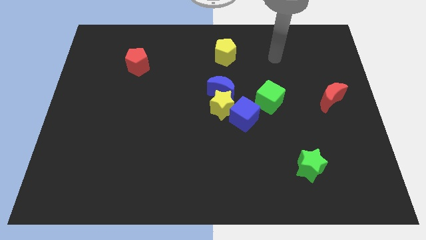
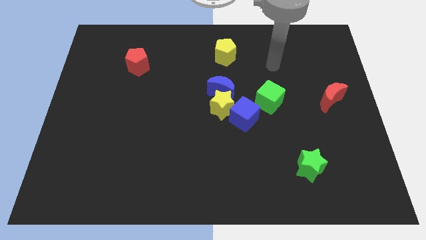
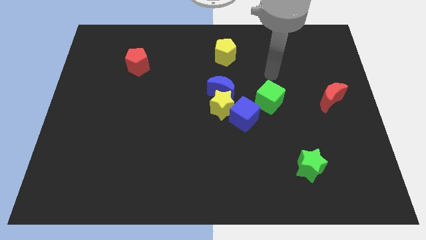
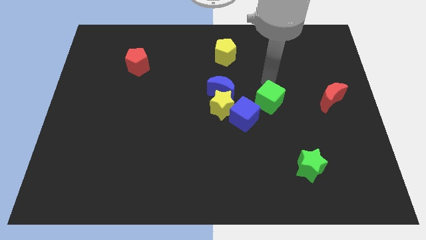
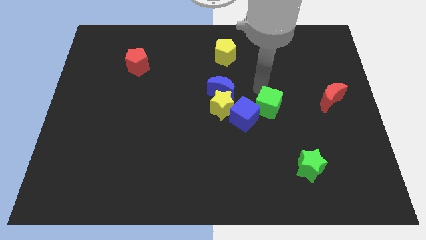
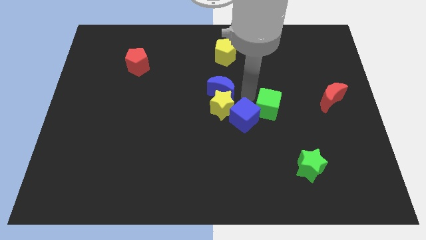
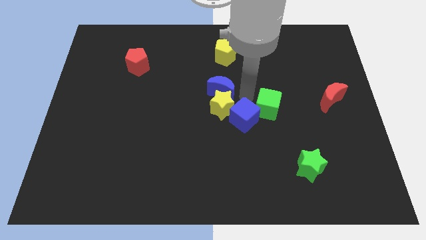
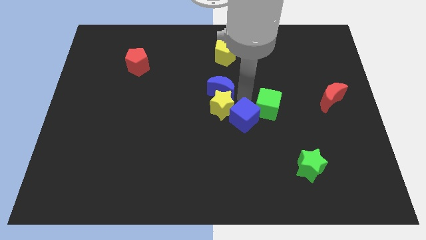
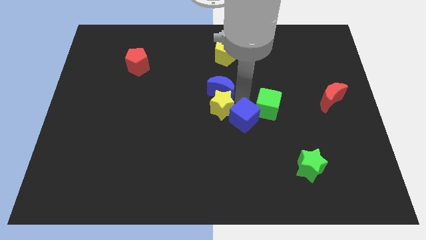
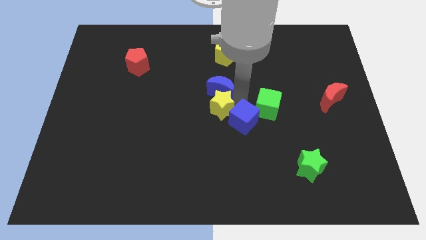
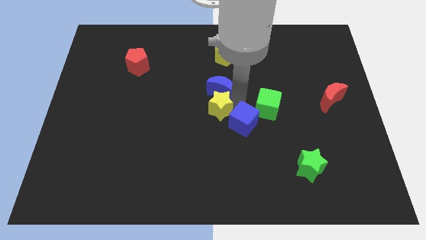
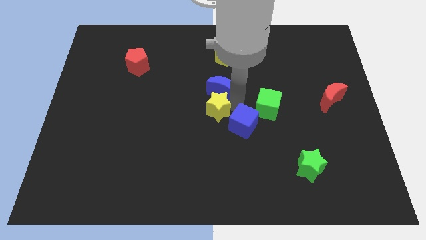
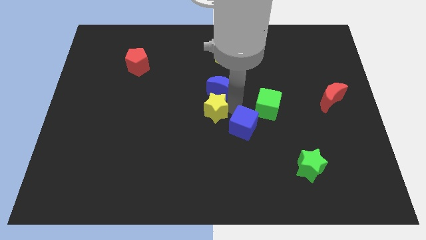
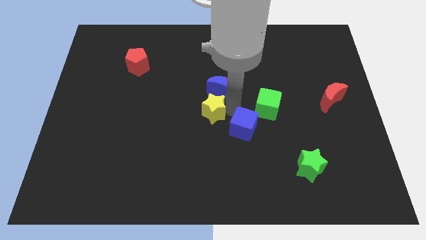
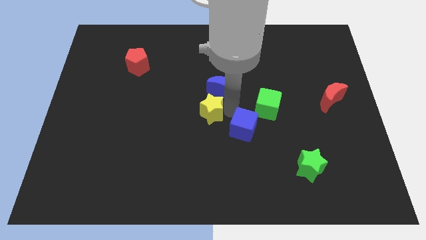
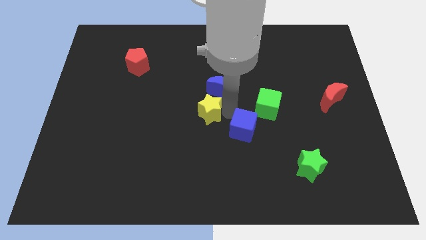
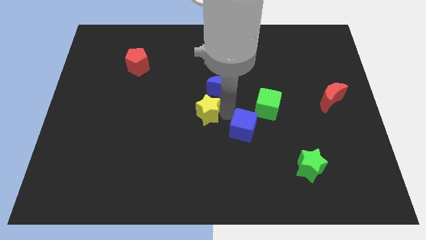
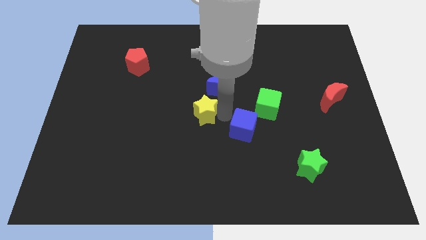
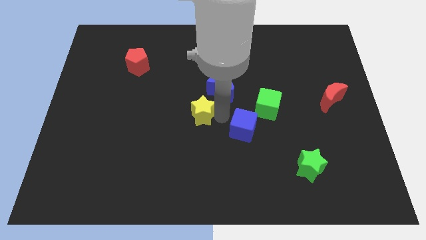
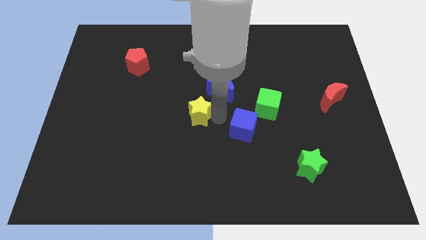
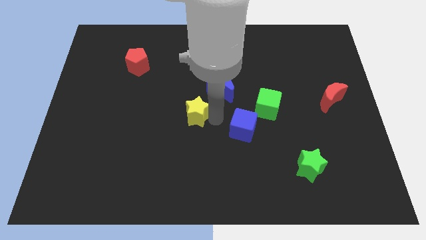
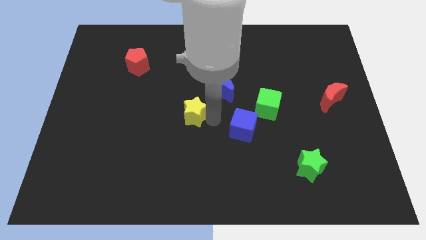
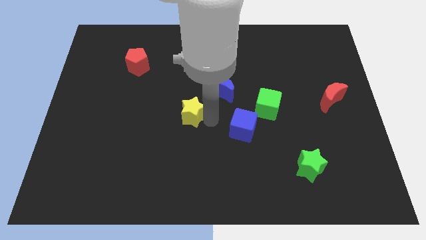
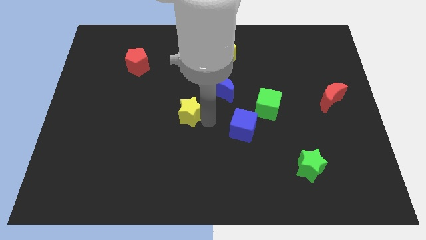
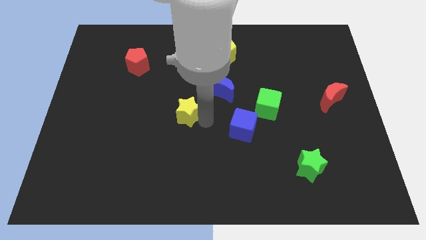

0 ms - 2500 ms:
separate the yellow star from the blue moon and blue cube

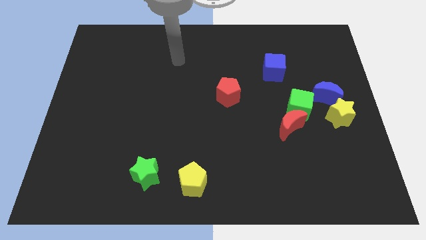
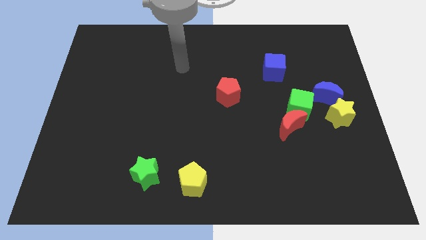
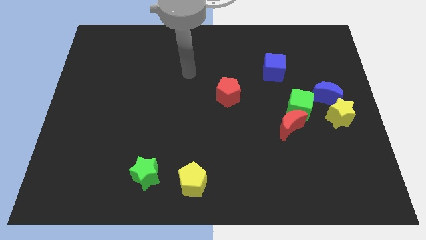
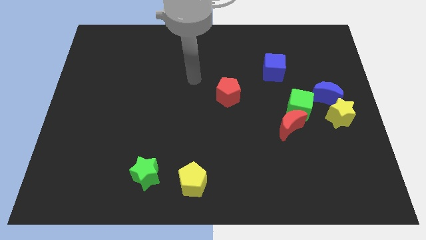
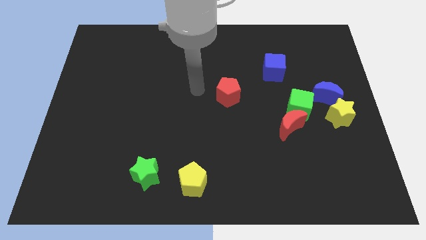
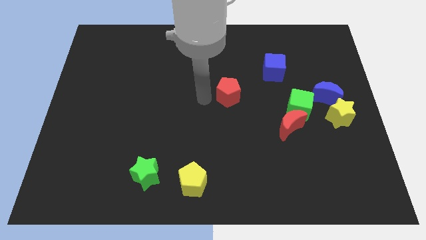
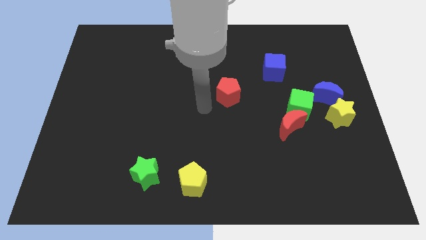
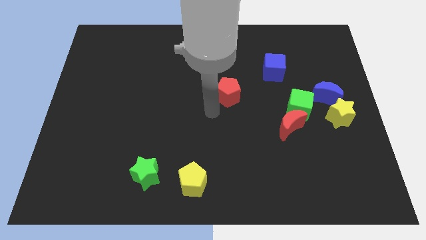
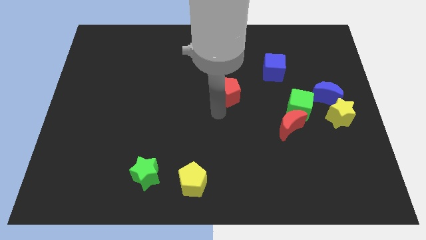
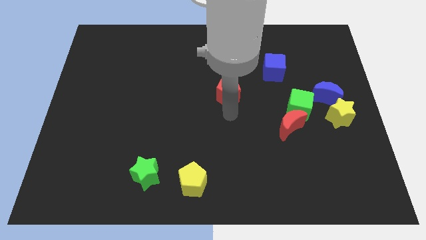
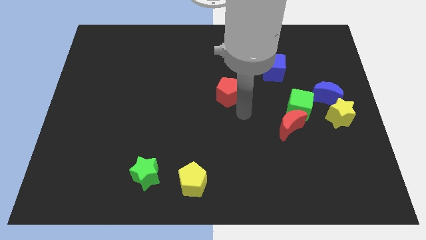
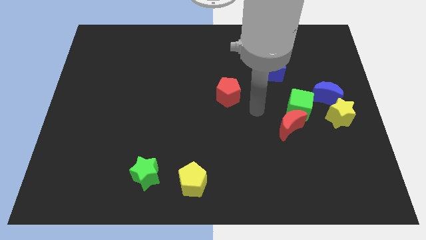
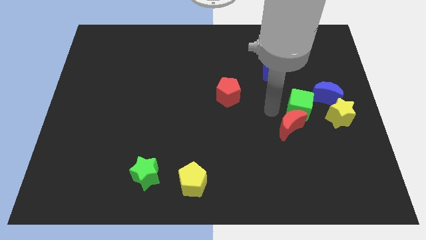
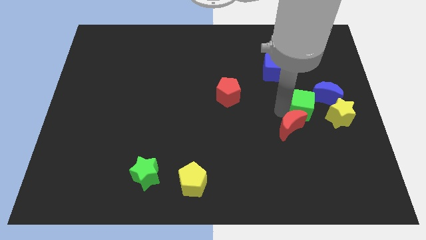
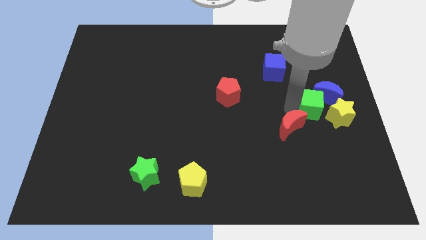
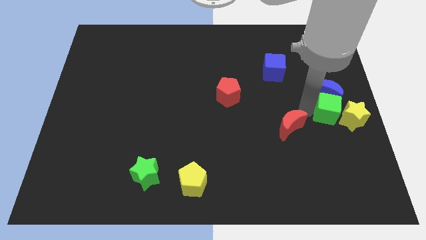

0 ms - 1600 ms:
separate the red moon from the green cube

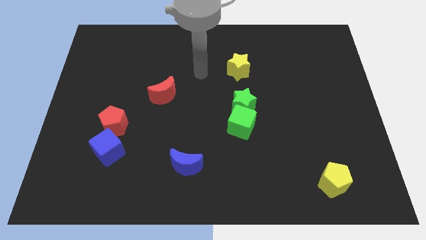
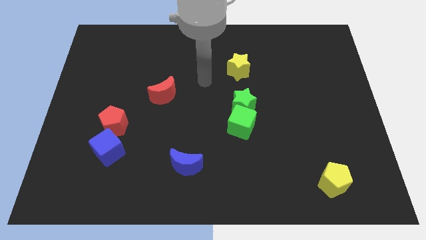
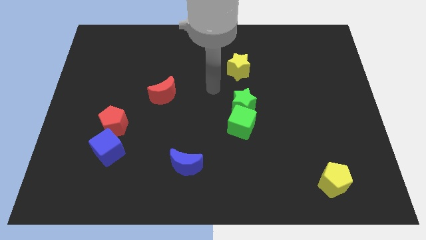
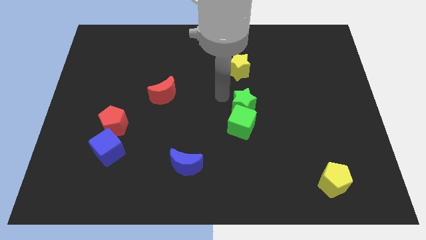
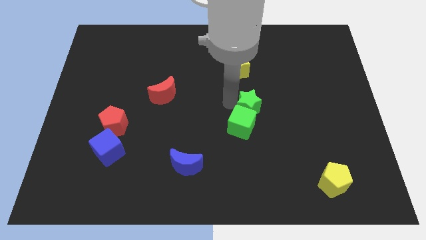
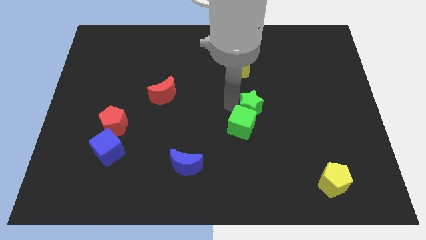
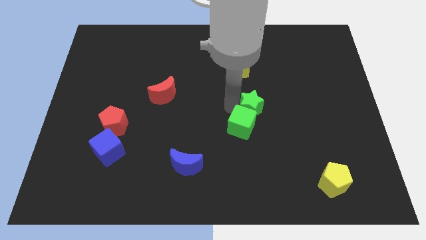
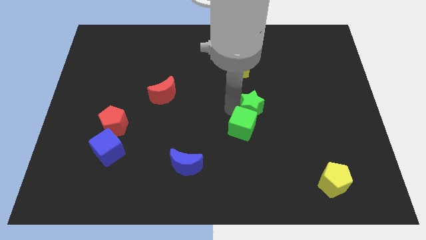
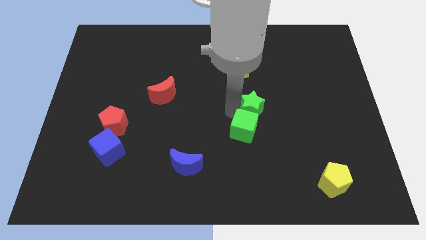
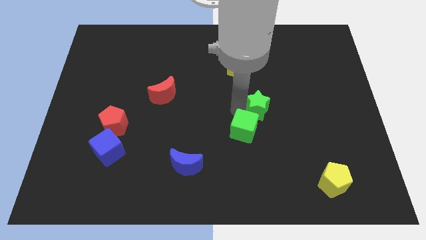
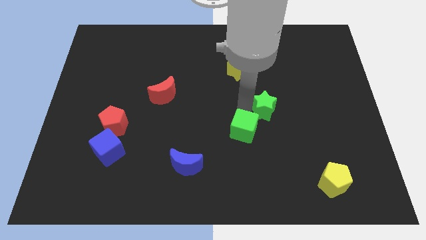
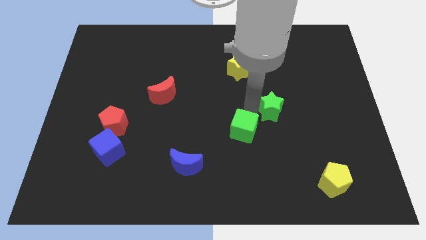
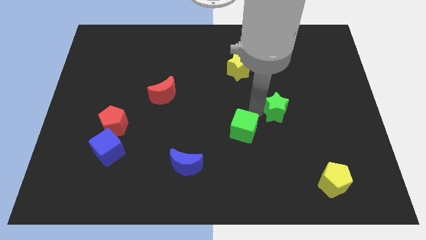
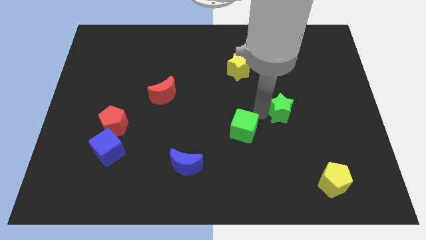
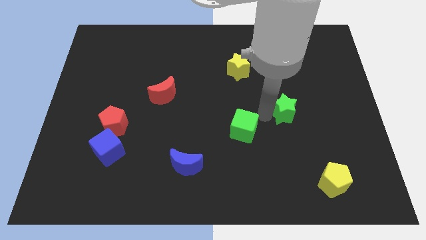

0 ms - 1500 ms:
separate the green cube from the green star

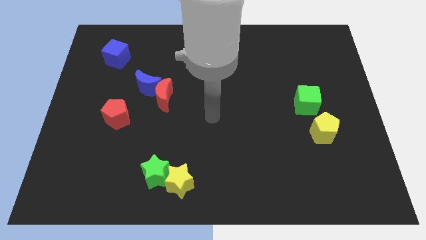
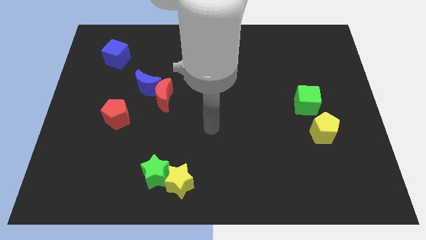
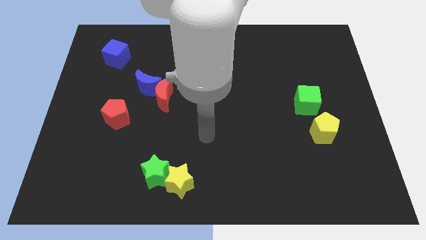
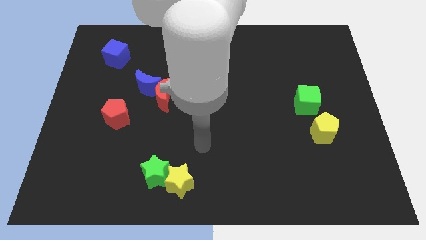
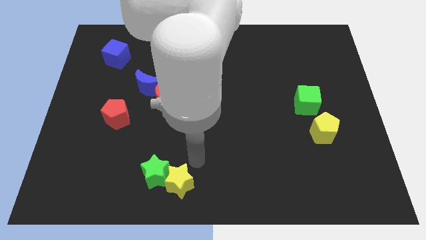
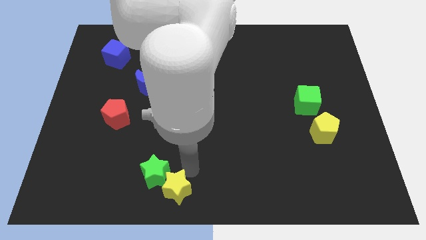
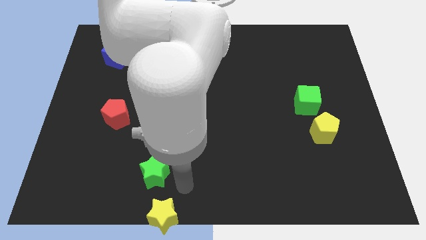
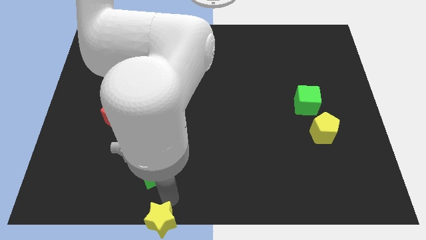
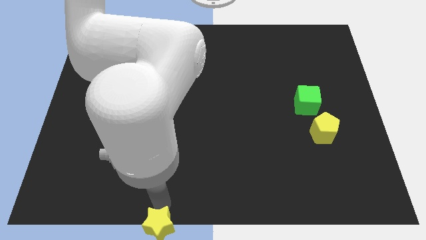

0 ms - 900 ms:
pull the green star apart from the yellow star

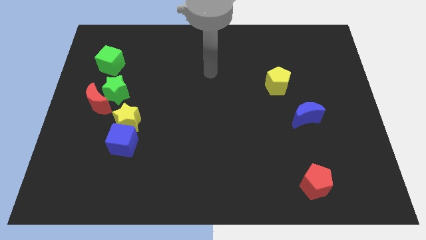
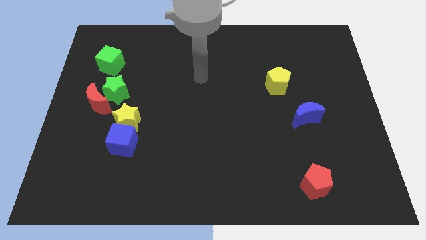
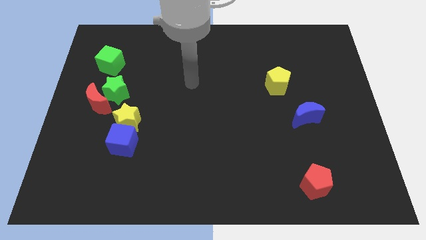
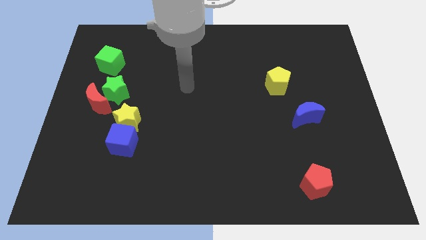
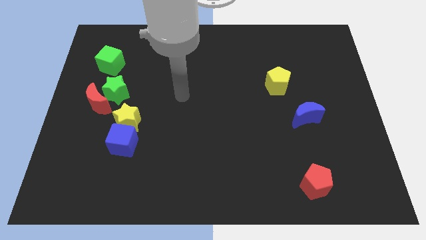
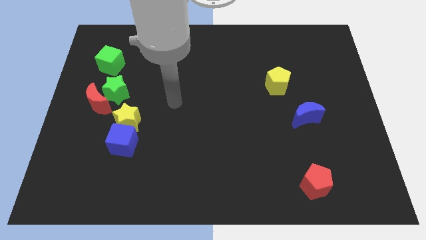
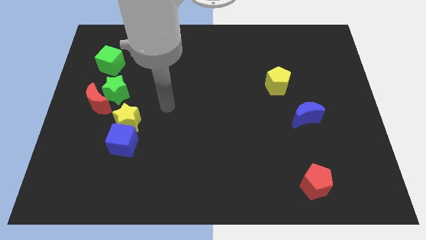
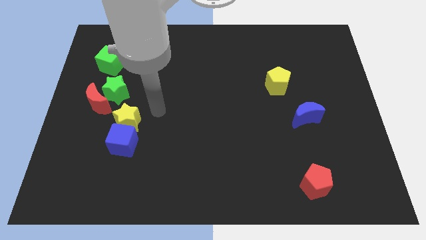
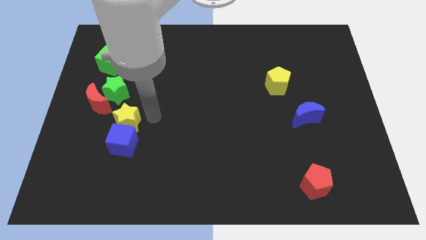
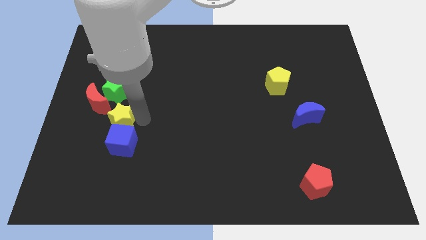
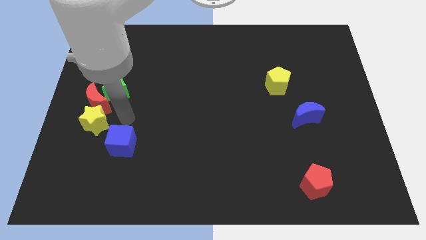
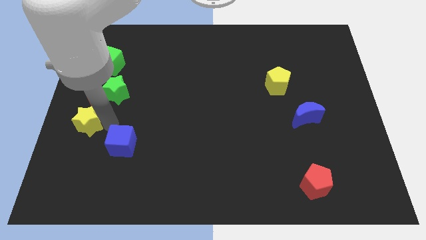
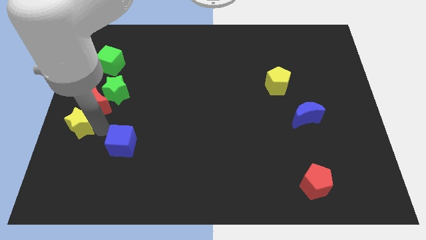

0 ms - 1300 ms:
separate the blue cube from the yellow star

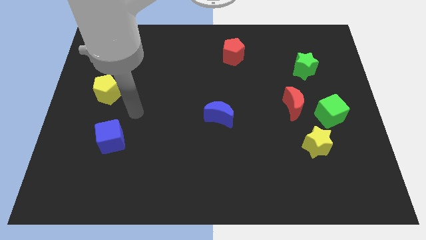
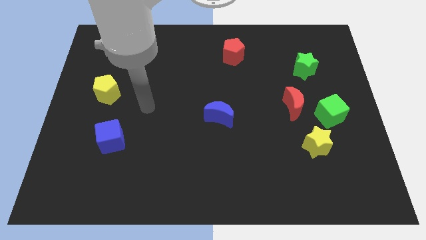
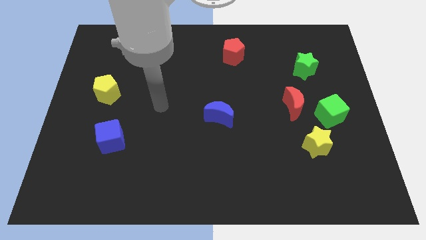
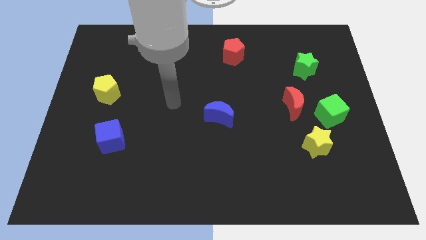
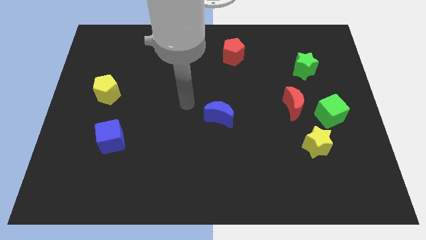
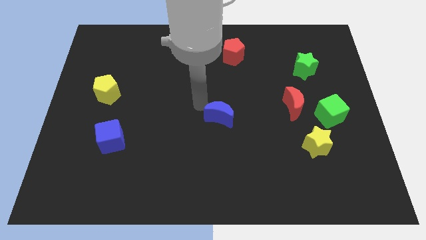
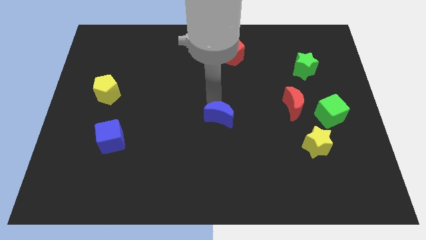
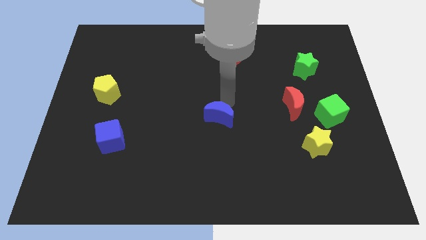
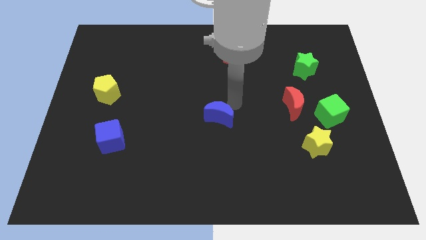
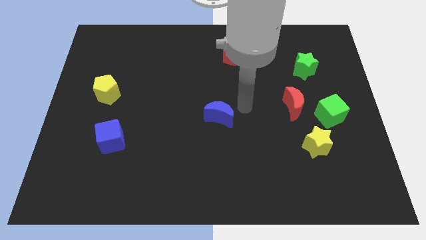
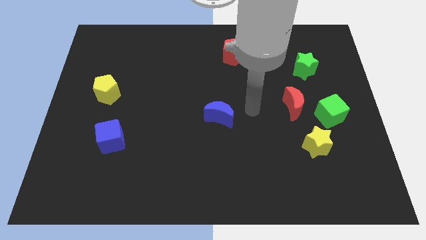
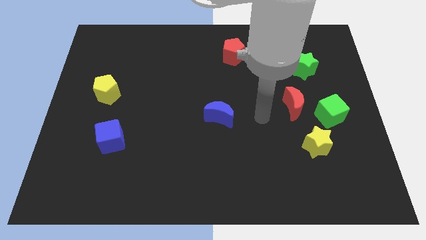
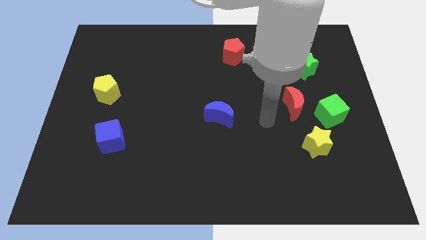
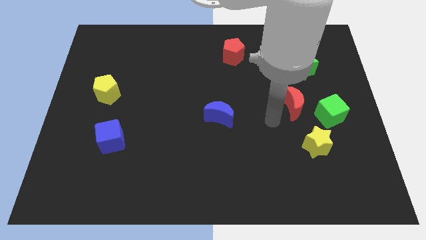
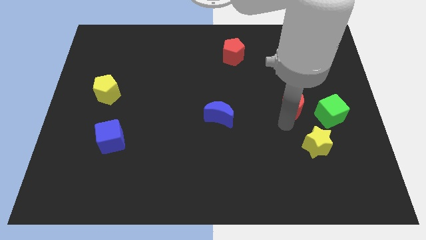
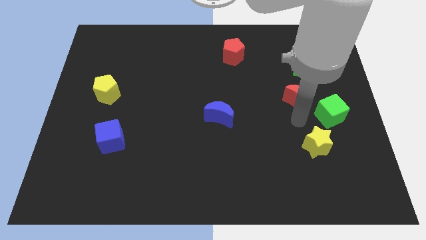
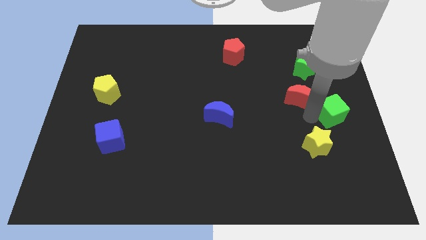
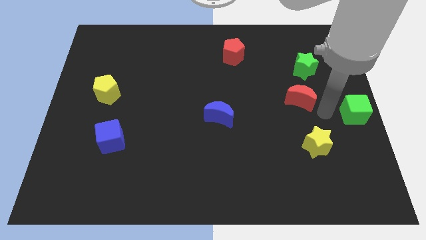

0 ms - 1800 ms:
pull the red moon apart from the green cube
